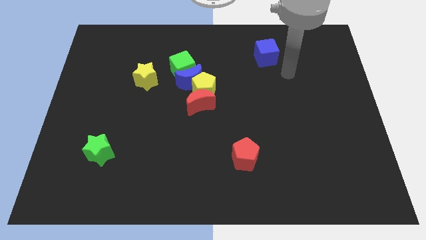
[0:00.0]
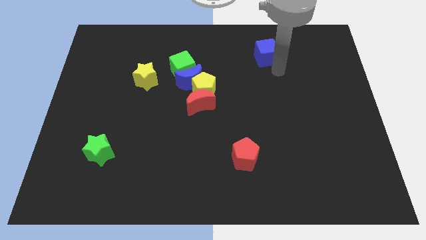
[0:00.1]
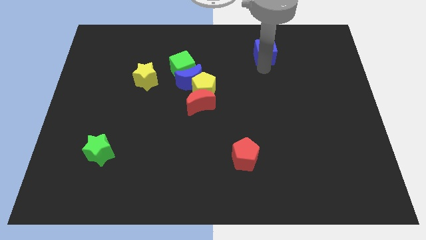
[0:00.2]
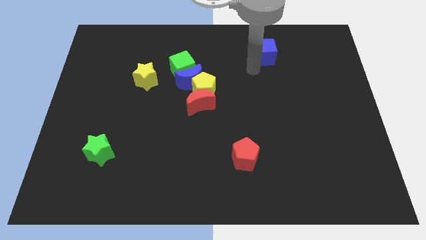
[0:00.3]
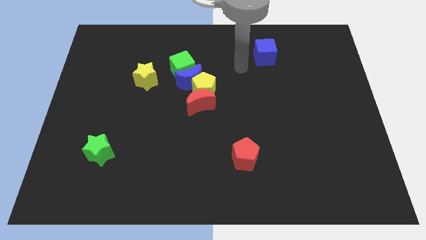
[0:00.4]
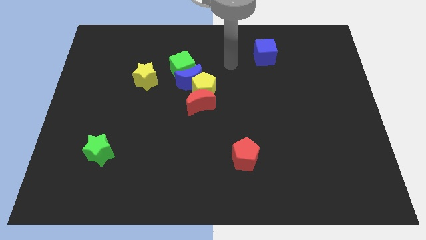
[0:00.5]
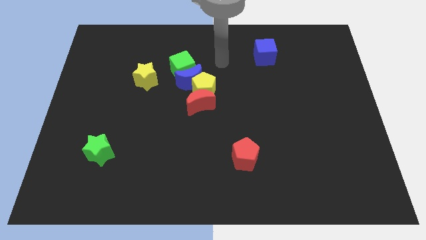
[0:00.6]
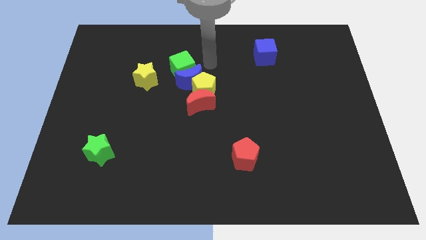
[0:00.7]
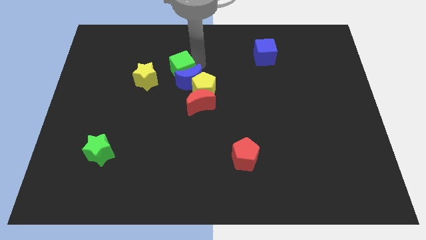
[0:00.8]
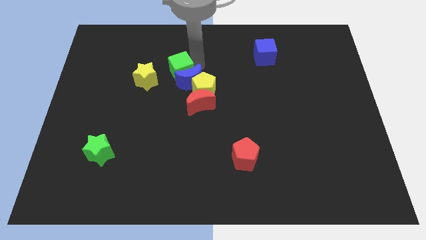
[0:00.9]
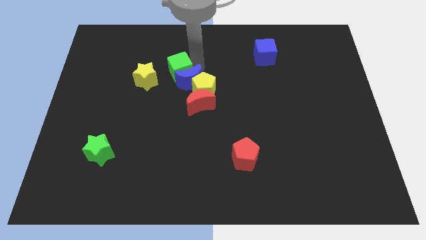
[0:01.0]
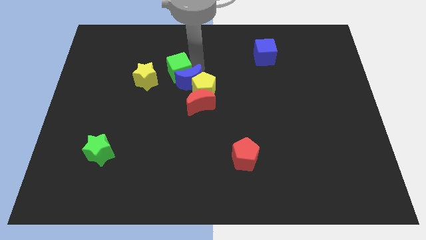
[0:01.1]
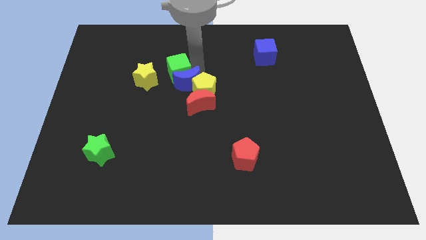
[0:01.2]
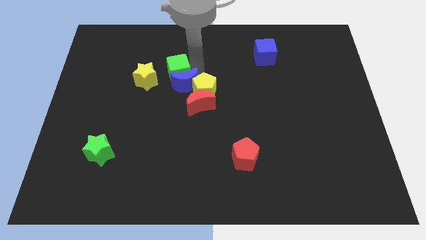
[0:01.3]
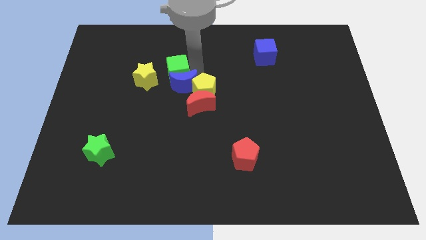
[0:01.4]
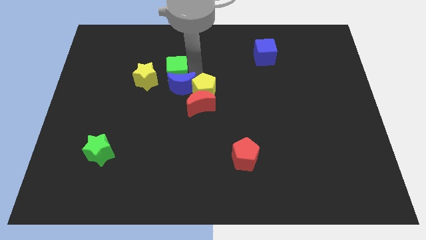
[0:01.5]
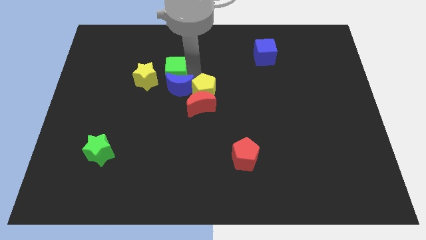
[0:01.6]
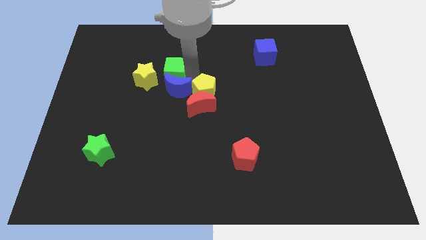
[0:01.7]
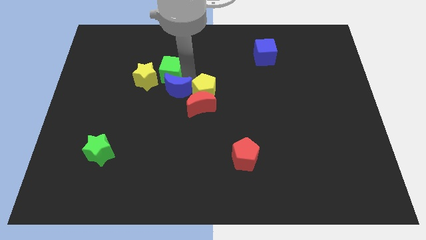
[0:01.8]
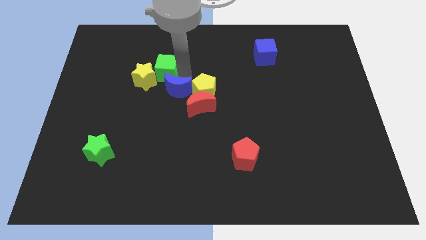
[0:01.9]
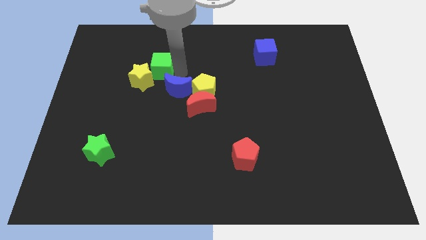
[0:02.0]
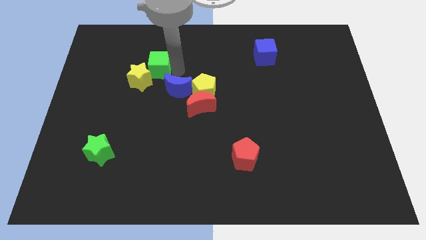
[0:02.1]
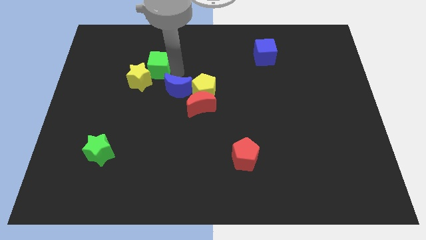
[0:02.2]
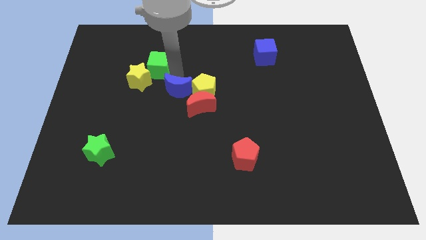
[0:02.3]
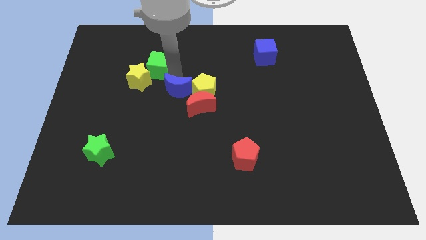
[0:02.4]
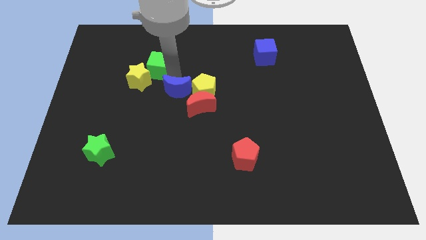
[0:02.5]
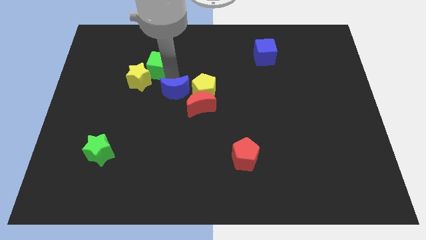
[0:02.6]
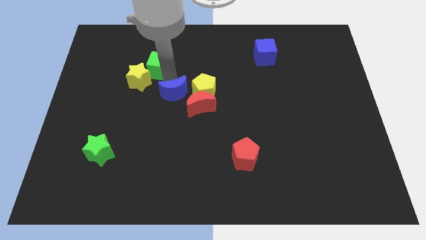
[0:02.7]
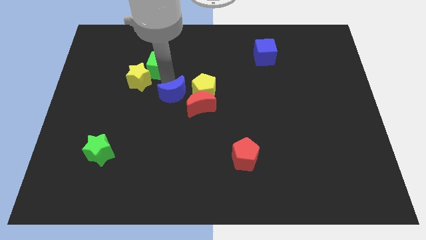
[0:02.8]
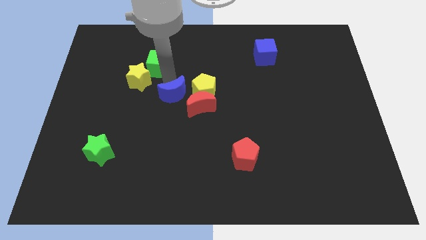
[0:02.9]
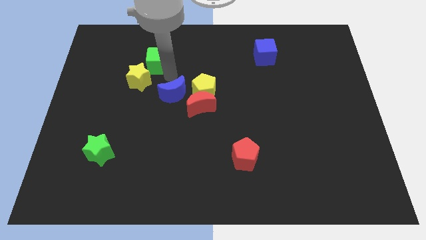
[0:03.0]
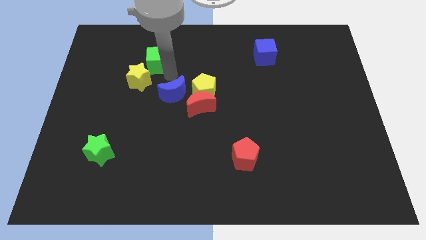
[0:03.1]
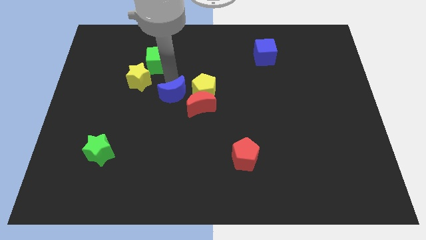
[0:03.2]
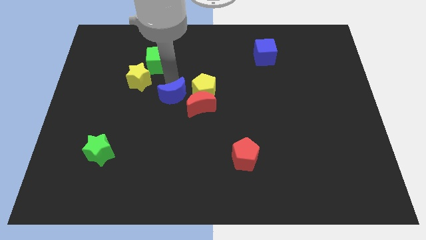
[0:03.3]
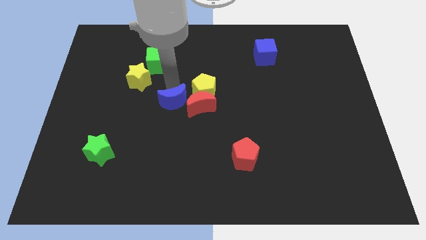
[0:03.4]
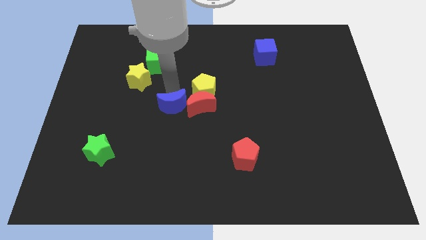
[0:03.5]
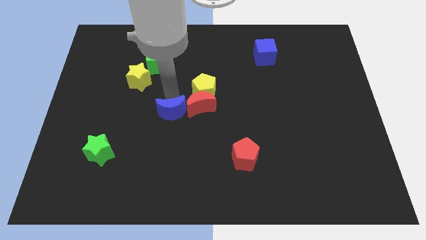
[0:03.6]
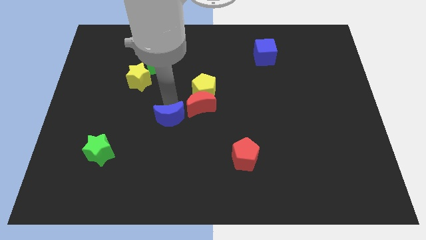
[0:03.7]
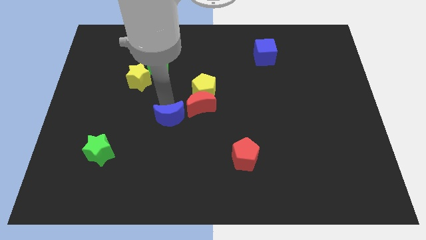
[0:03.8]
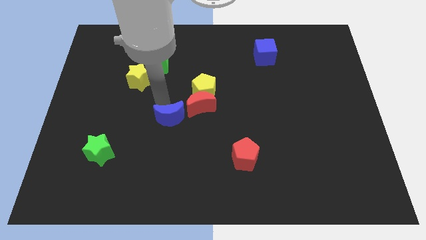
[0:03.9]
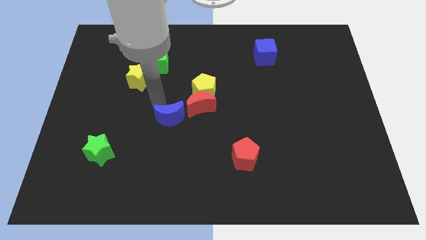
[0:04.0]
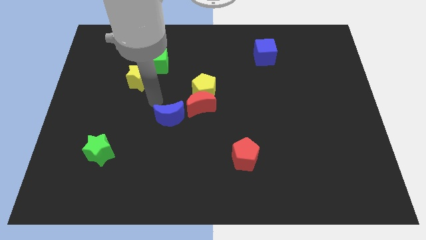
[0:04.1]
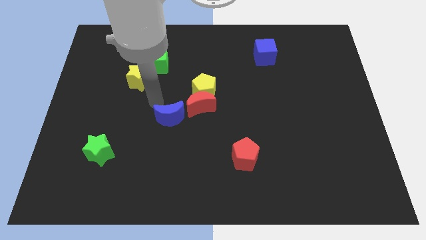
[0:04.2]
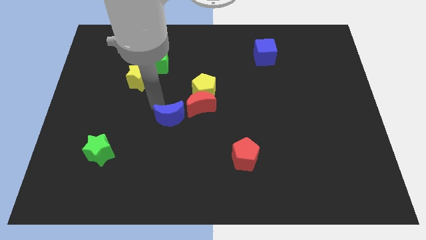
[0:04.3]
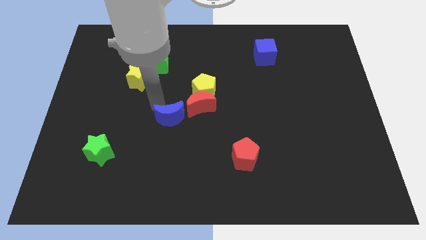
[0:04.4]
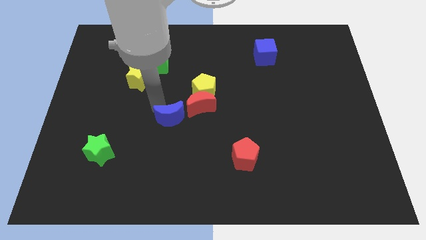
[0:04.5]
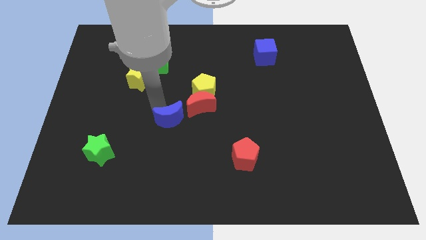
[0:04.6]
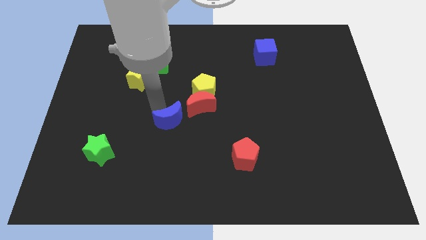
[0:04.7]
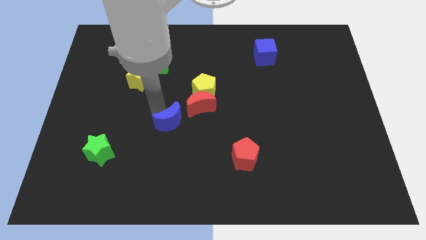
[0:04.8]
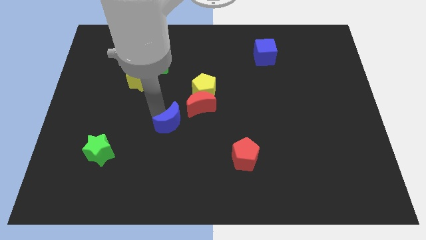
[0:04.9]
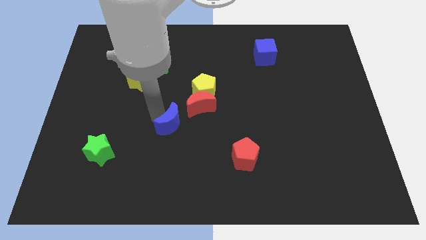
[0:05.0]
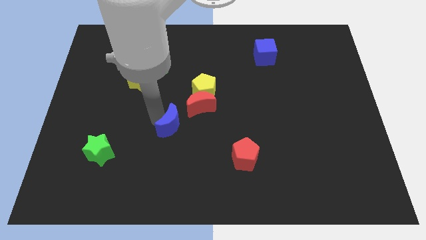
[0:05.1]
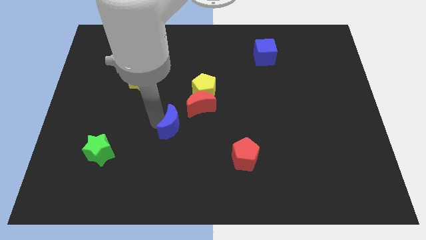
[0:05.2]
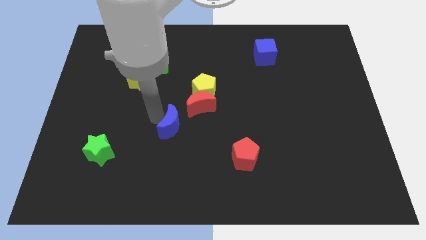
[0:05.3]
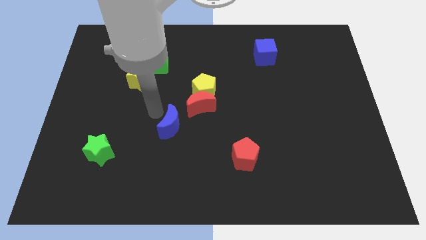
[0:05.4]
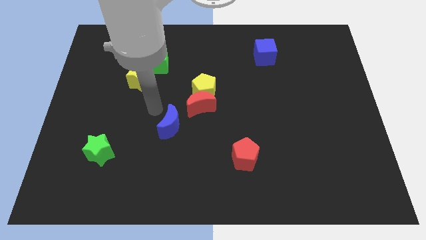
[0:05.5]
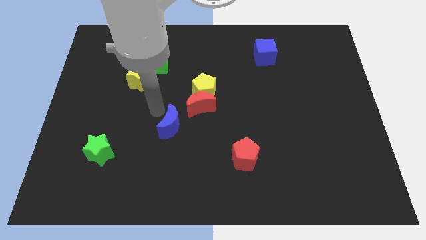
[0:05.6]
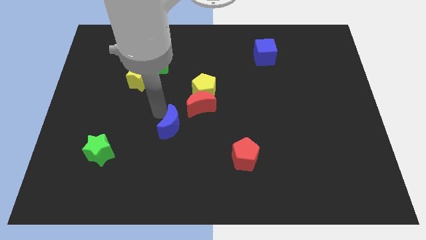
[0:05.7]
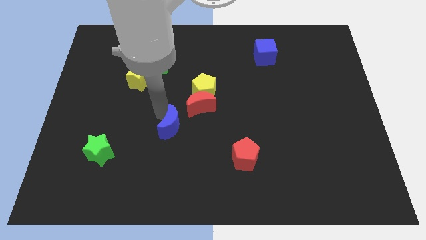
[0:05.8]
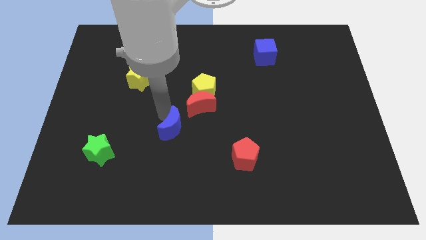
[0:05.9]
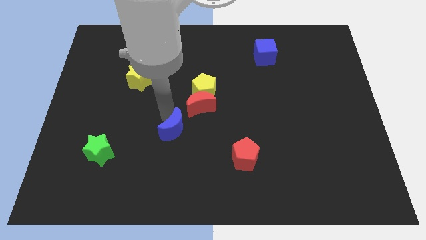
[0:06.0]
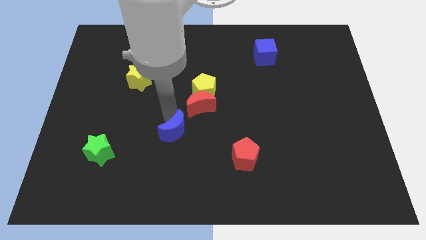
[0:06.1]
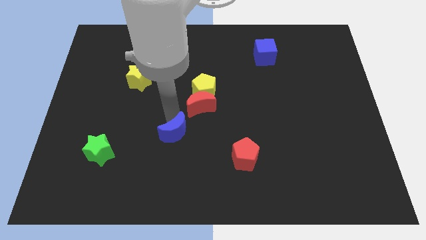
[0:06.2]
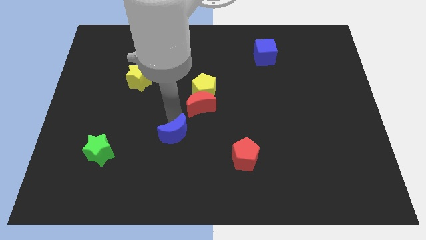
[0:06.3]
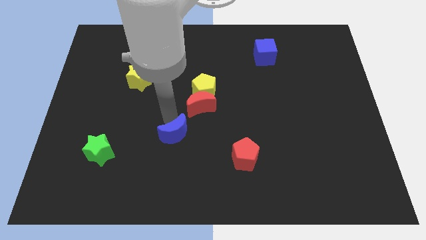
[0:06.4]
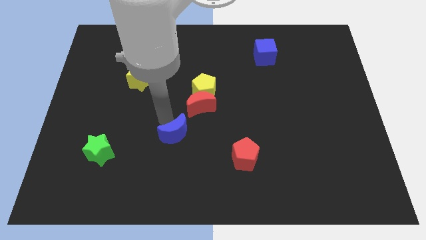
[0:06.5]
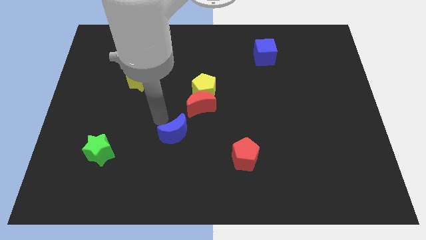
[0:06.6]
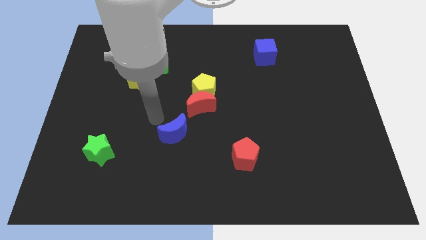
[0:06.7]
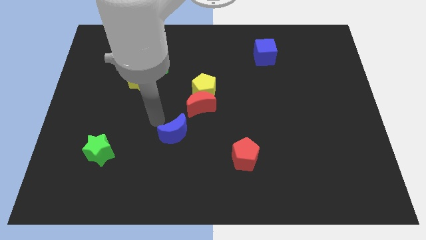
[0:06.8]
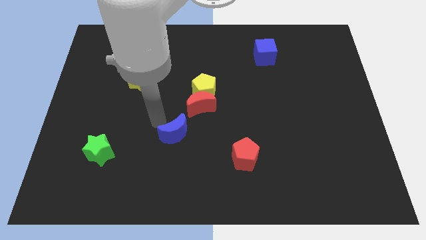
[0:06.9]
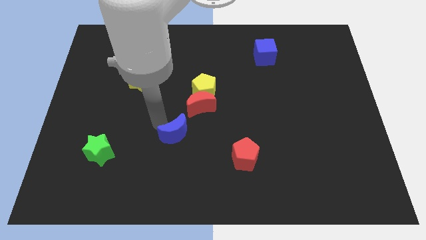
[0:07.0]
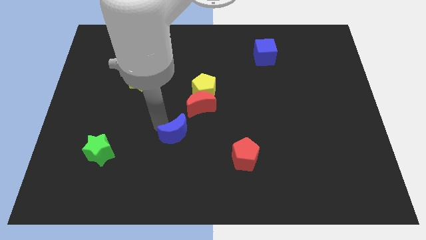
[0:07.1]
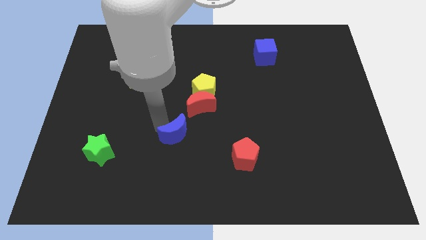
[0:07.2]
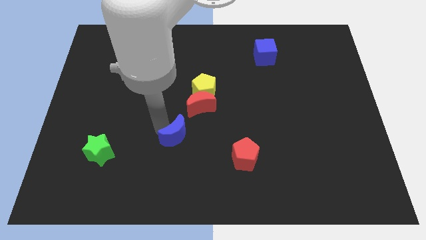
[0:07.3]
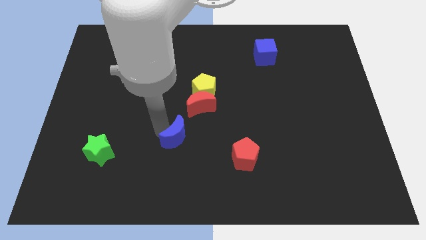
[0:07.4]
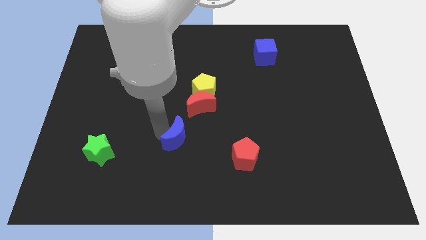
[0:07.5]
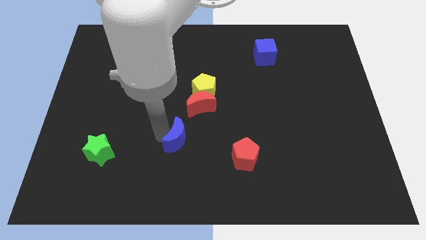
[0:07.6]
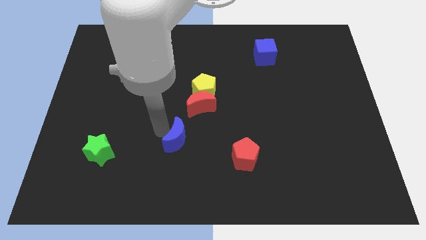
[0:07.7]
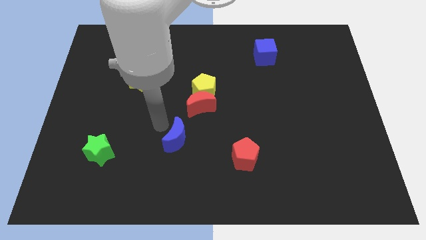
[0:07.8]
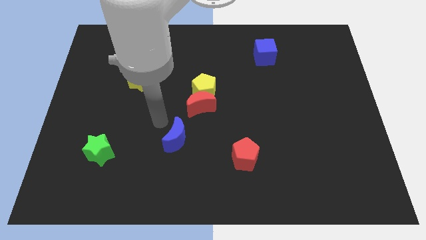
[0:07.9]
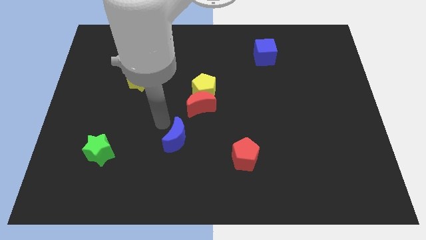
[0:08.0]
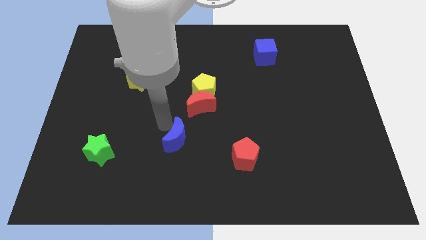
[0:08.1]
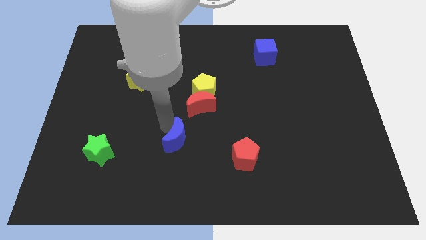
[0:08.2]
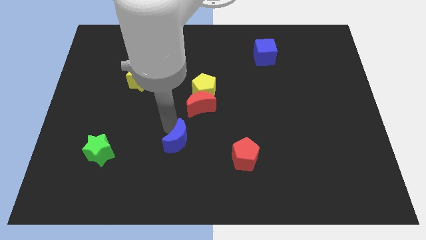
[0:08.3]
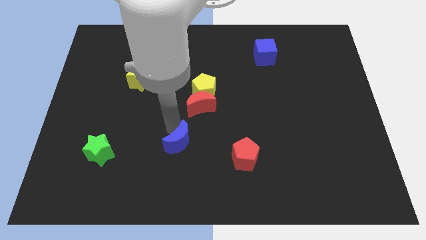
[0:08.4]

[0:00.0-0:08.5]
push the blue moon to the left side of the red pentagon
